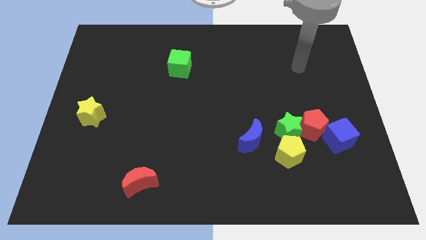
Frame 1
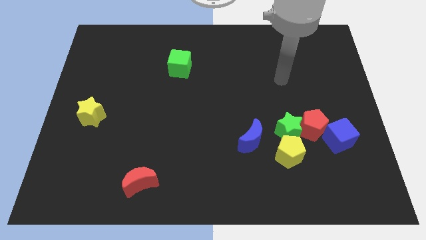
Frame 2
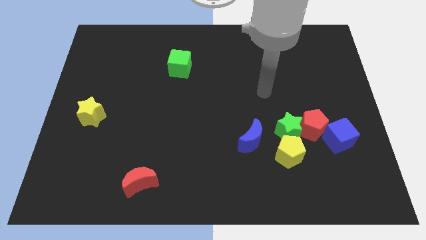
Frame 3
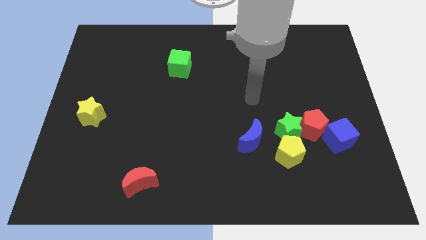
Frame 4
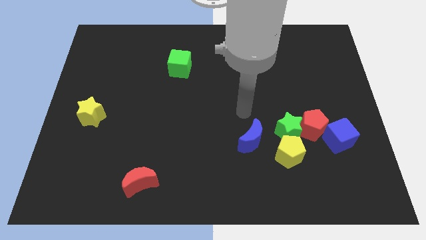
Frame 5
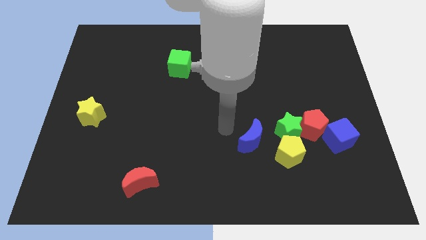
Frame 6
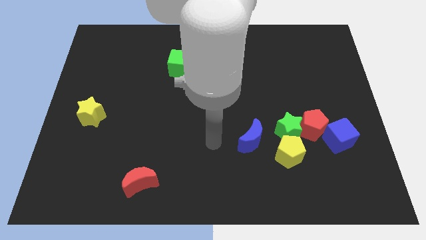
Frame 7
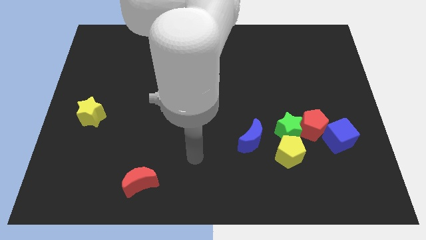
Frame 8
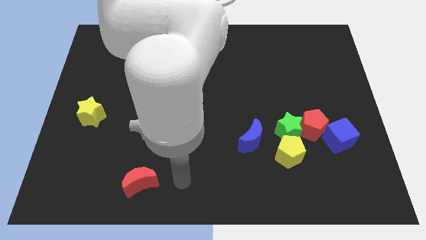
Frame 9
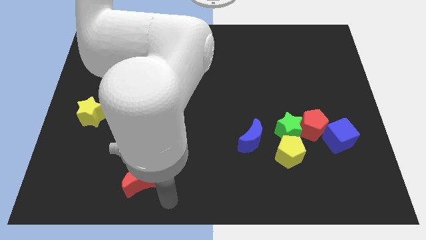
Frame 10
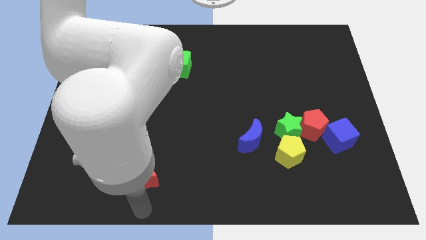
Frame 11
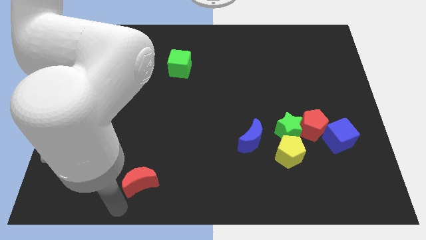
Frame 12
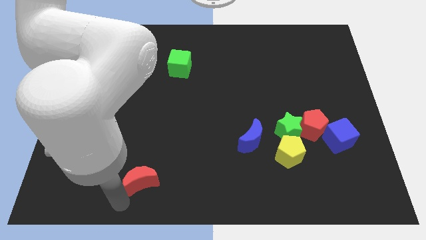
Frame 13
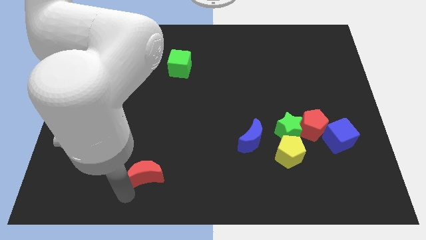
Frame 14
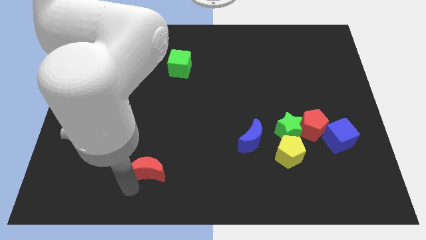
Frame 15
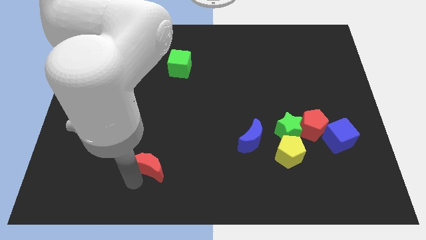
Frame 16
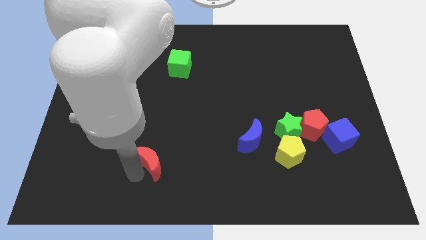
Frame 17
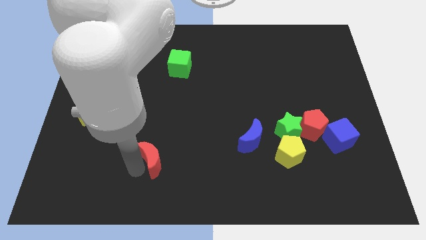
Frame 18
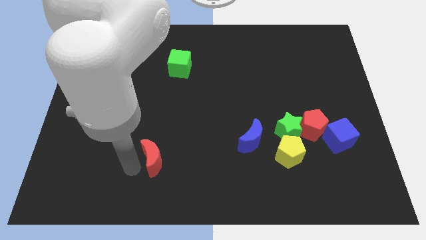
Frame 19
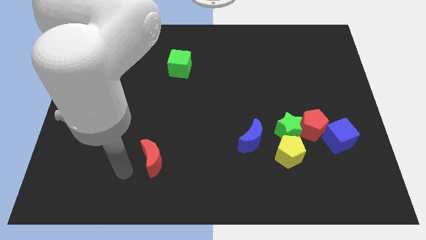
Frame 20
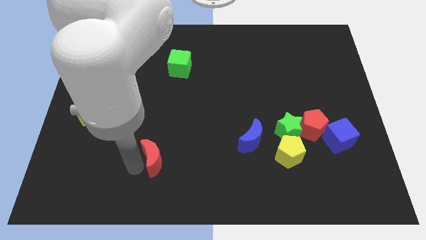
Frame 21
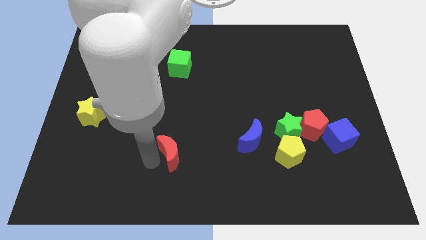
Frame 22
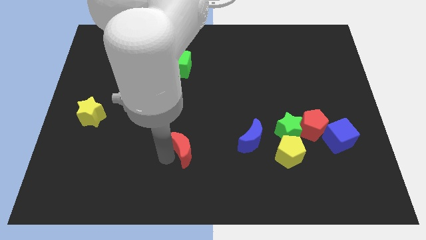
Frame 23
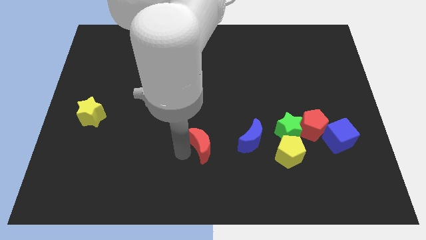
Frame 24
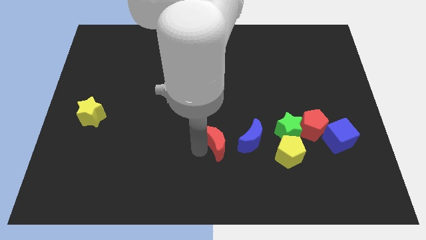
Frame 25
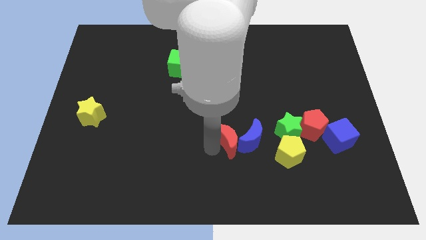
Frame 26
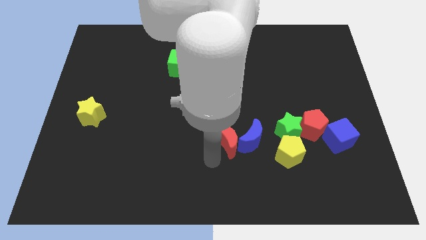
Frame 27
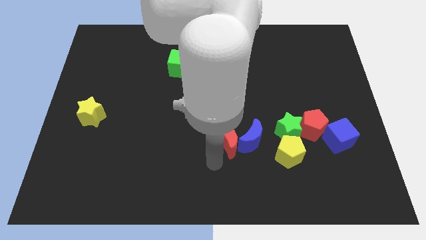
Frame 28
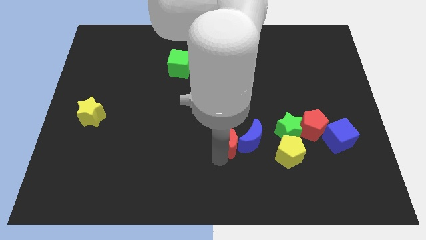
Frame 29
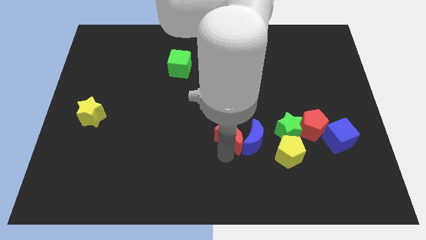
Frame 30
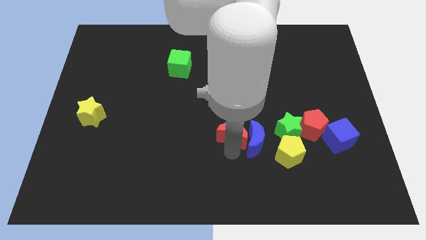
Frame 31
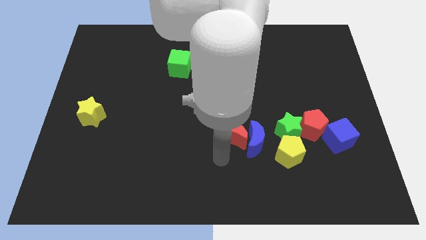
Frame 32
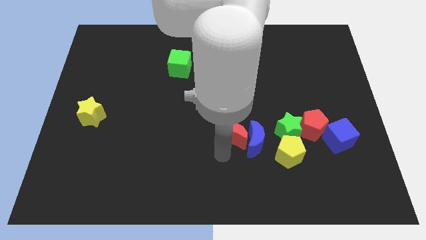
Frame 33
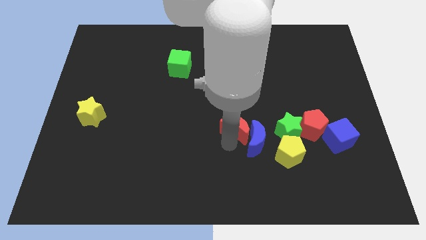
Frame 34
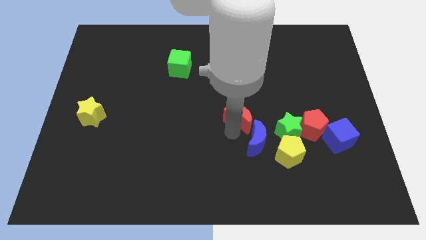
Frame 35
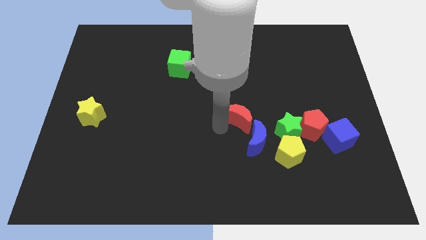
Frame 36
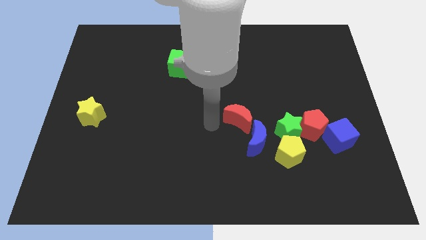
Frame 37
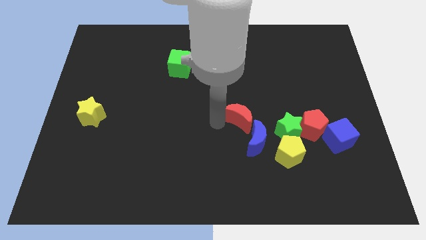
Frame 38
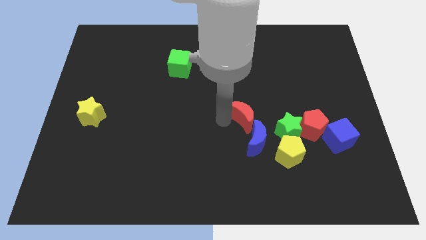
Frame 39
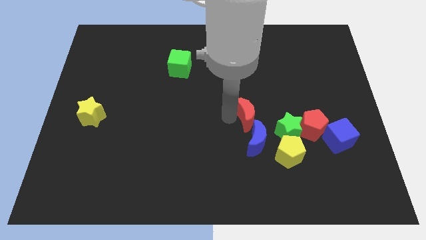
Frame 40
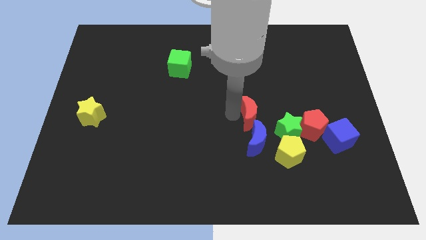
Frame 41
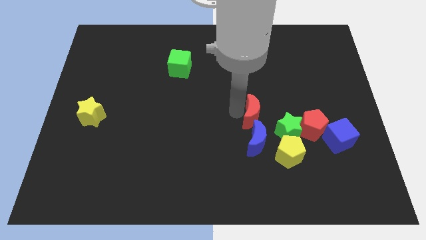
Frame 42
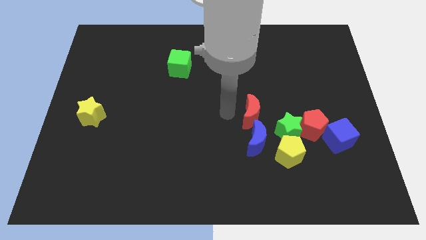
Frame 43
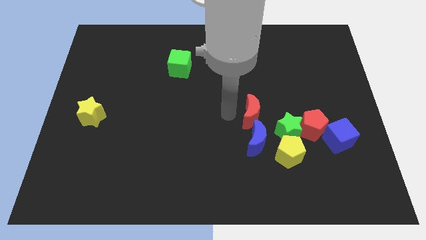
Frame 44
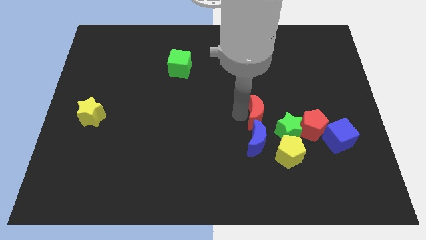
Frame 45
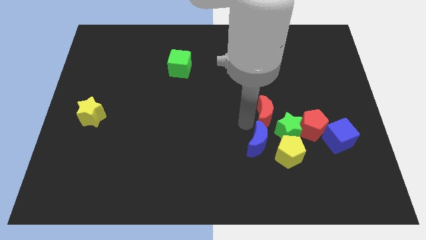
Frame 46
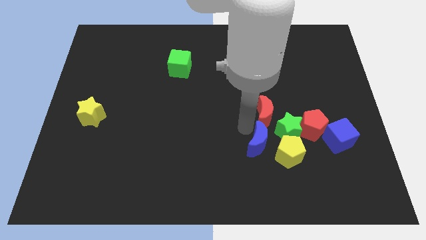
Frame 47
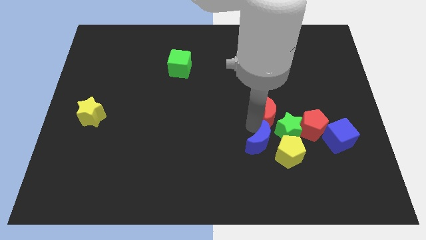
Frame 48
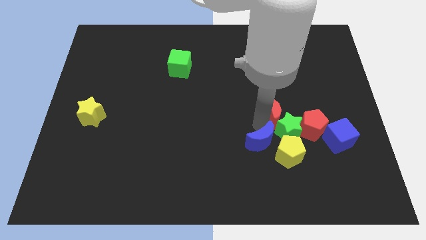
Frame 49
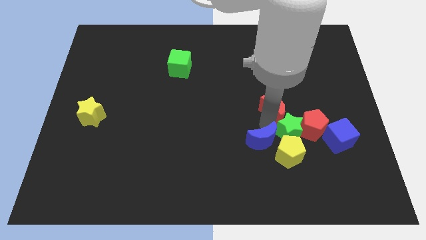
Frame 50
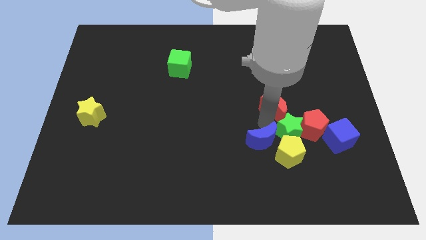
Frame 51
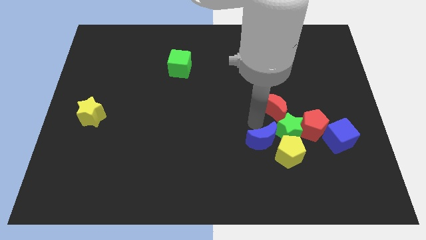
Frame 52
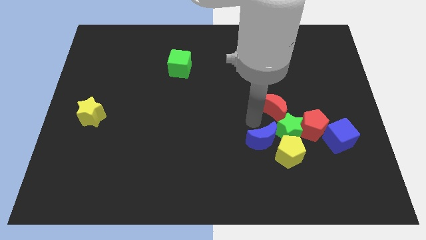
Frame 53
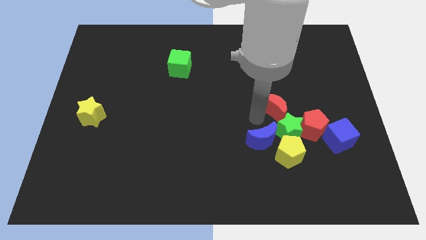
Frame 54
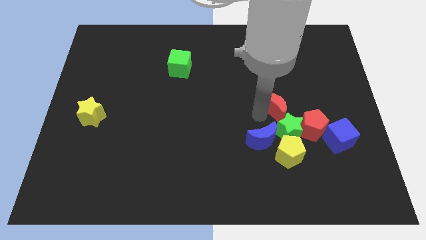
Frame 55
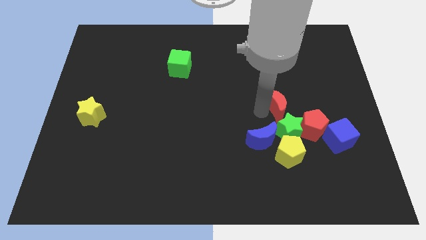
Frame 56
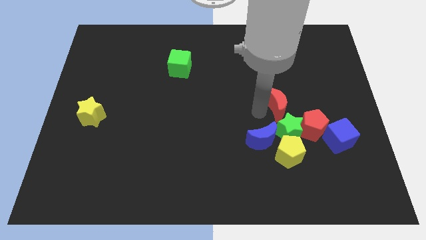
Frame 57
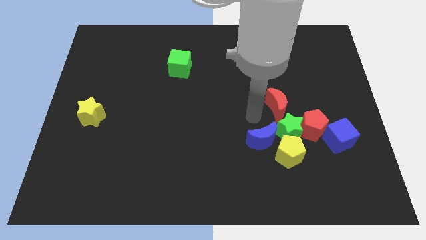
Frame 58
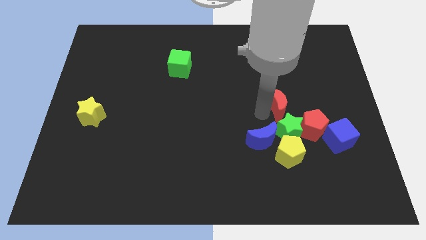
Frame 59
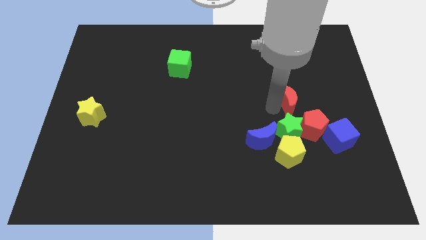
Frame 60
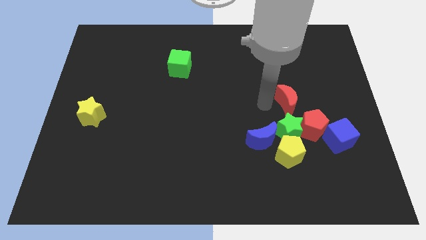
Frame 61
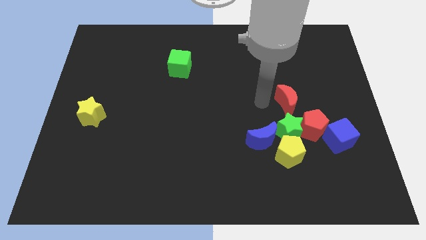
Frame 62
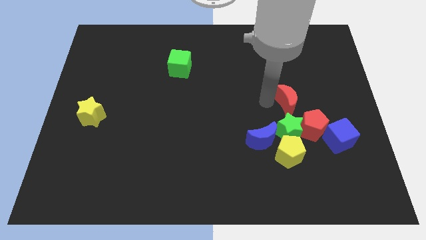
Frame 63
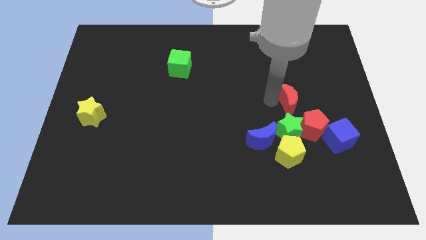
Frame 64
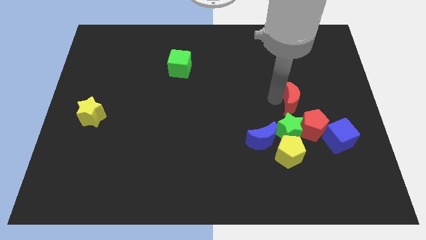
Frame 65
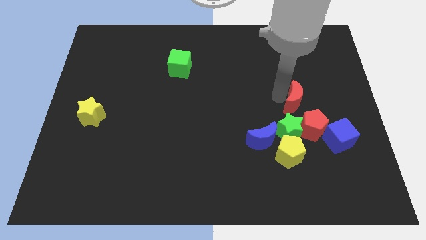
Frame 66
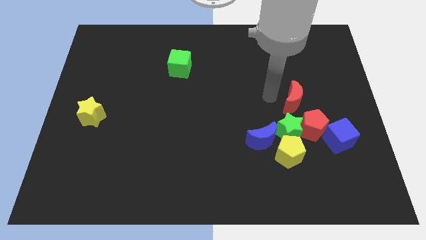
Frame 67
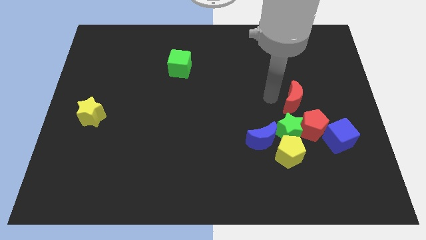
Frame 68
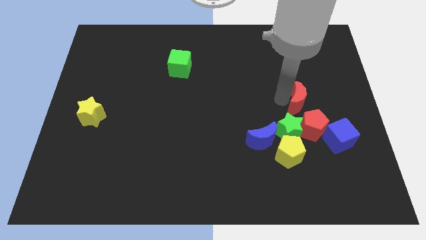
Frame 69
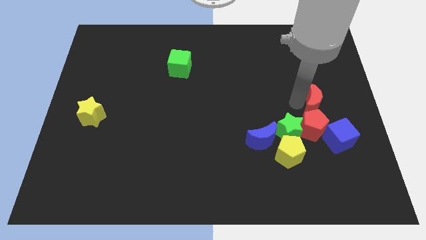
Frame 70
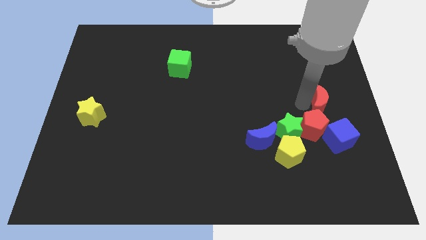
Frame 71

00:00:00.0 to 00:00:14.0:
put the red moon to the center right

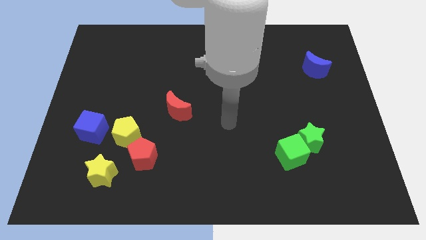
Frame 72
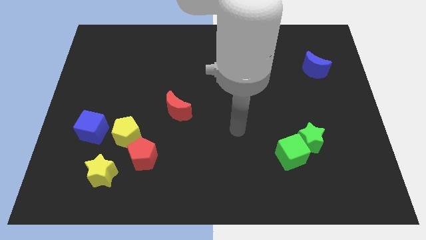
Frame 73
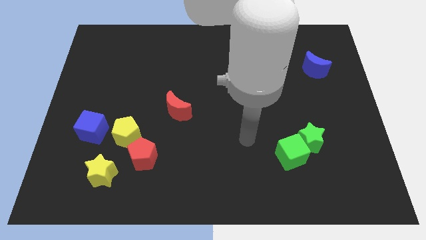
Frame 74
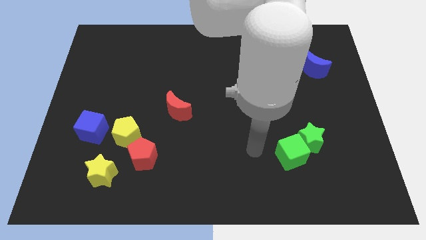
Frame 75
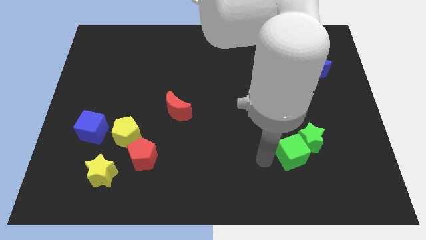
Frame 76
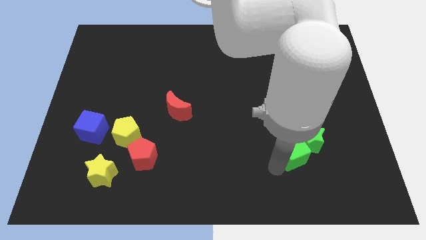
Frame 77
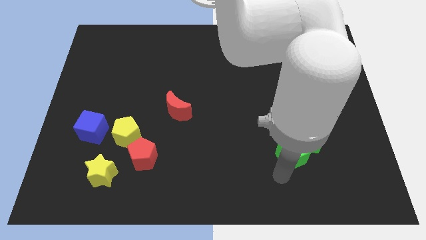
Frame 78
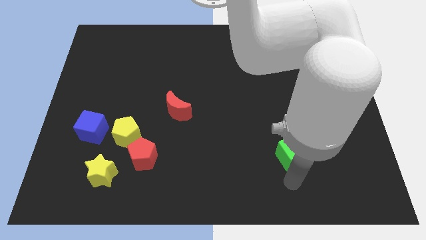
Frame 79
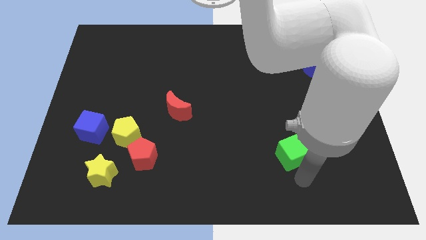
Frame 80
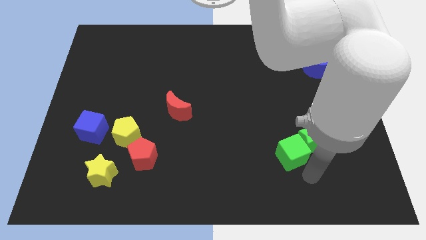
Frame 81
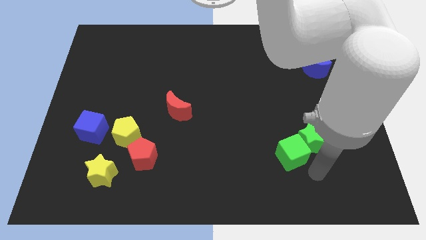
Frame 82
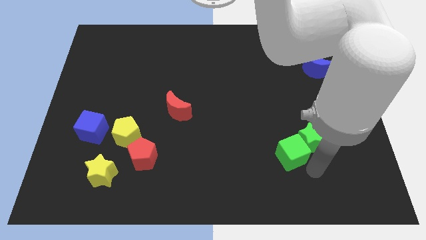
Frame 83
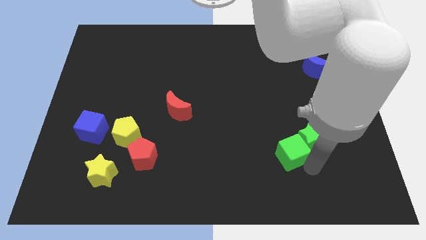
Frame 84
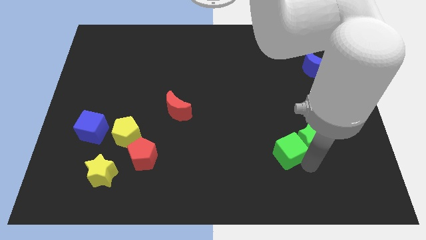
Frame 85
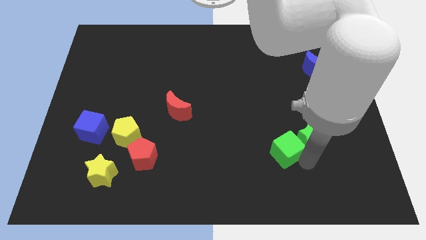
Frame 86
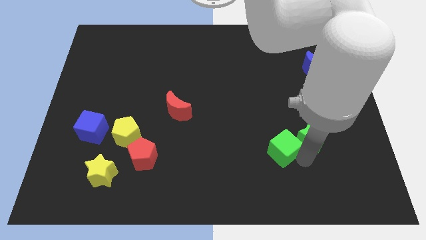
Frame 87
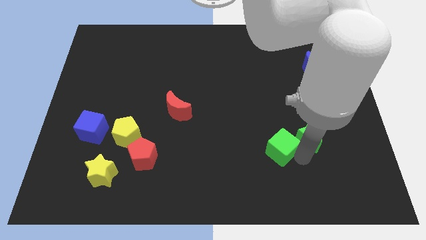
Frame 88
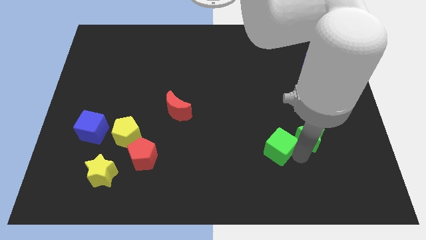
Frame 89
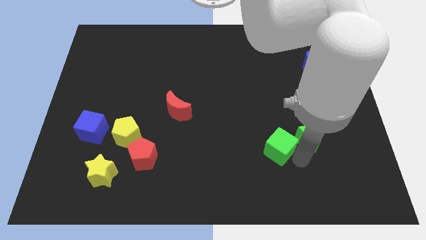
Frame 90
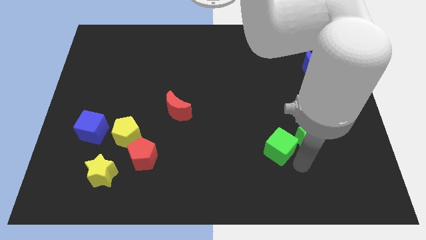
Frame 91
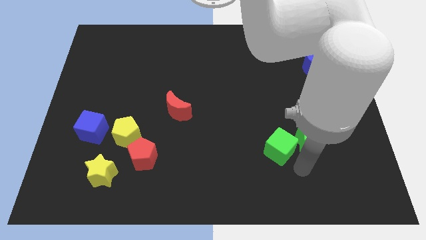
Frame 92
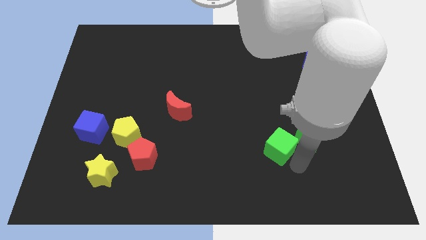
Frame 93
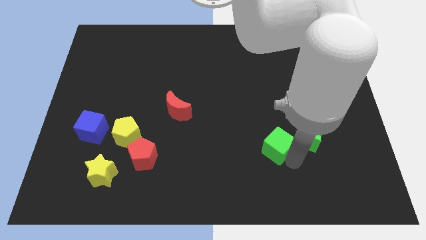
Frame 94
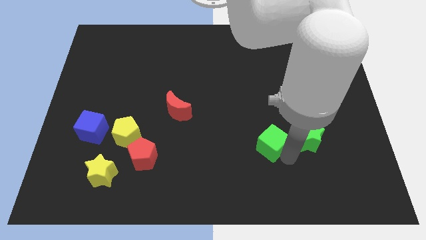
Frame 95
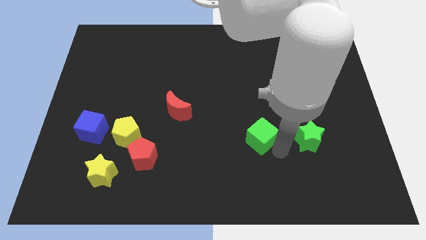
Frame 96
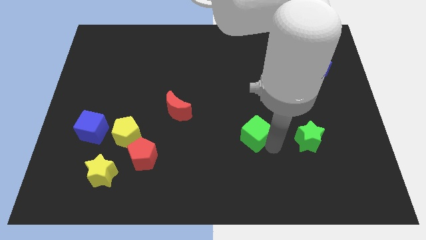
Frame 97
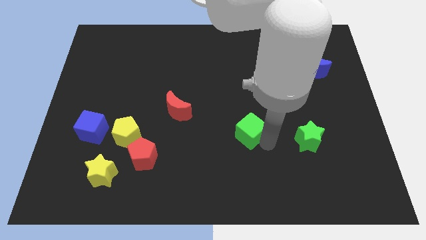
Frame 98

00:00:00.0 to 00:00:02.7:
put the green cube to the middle
